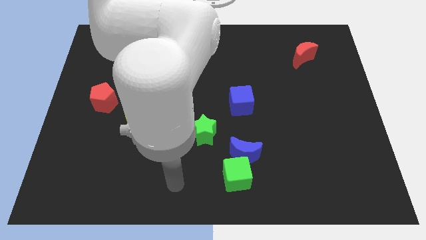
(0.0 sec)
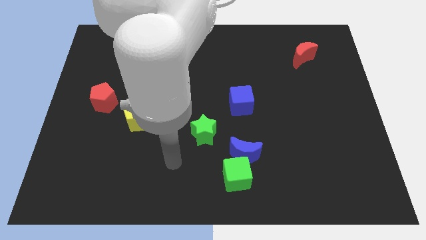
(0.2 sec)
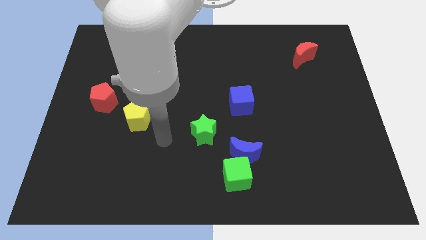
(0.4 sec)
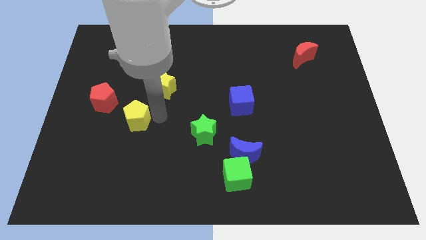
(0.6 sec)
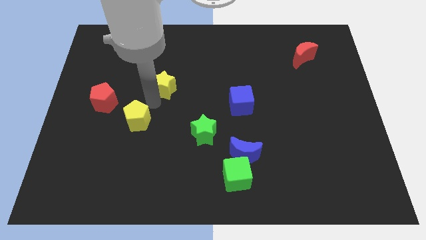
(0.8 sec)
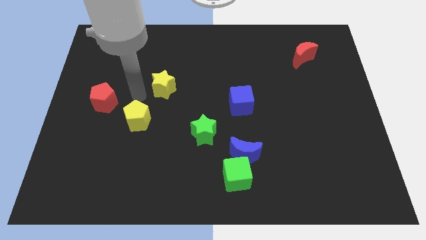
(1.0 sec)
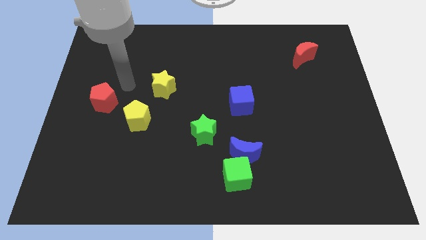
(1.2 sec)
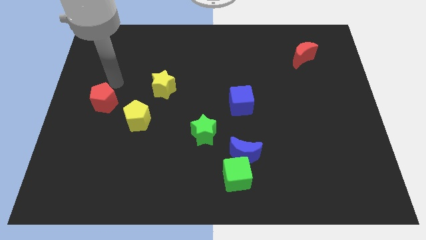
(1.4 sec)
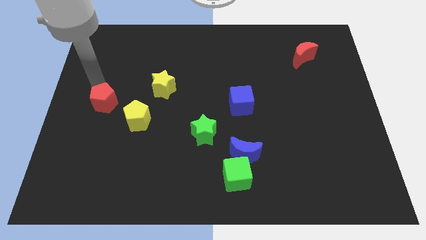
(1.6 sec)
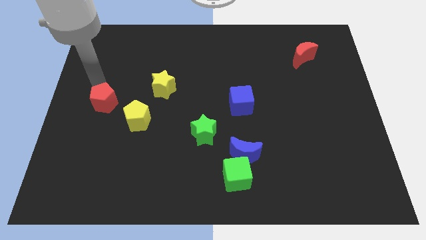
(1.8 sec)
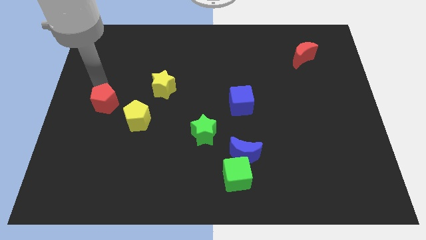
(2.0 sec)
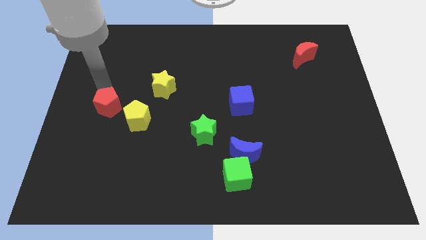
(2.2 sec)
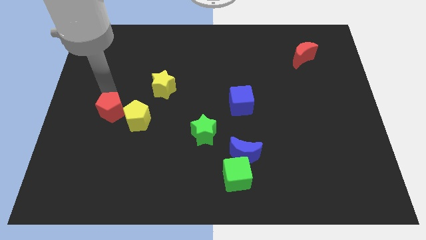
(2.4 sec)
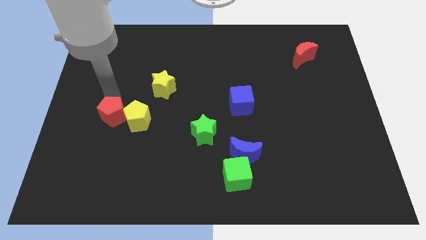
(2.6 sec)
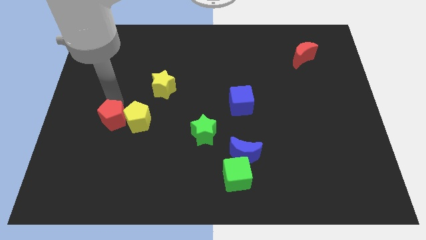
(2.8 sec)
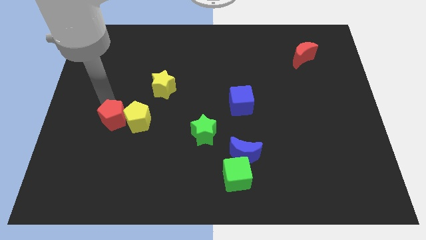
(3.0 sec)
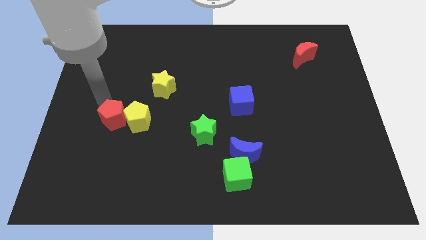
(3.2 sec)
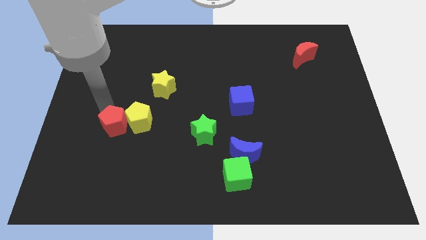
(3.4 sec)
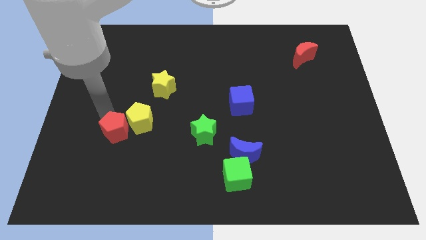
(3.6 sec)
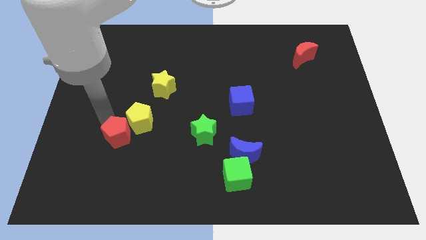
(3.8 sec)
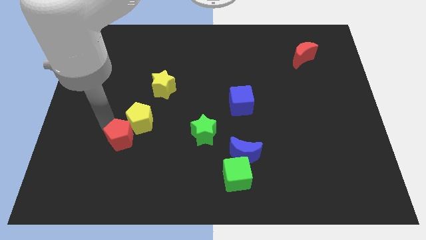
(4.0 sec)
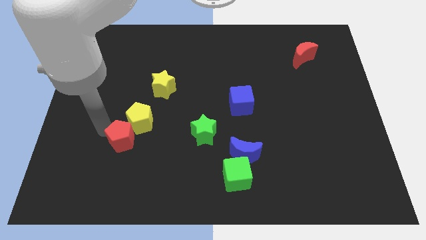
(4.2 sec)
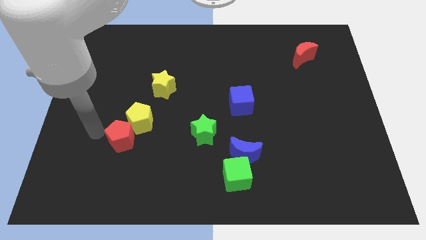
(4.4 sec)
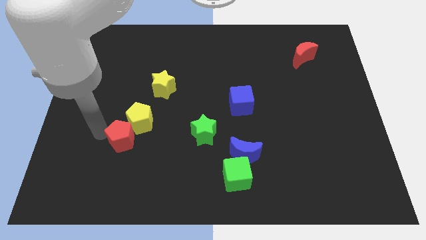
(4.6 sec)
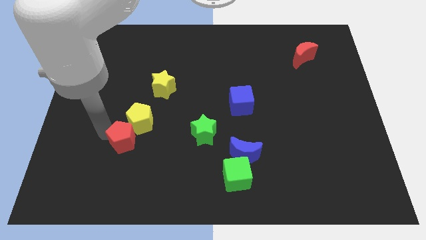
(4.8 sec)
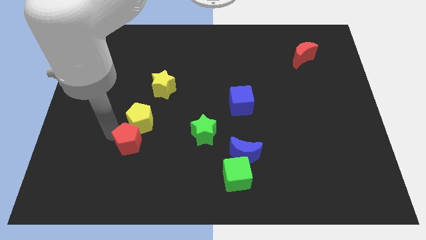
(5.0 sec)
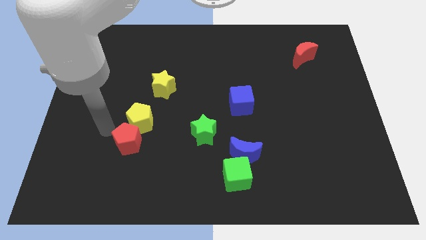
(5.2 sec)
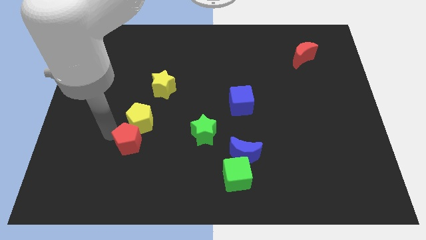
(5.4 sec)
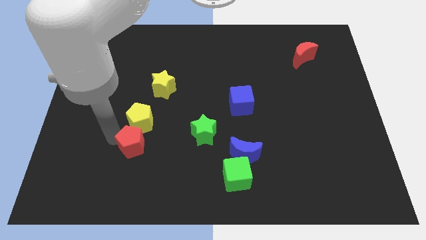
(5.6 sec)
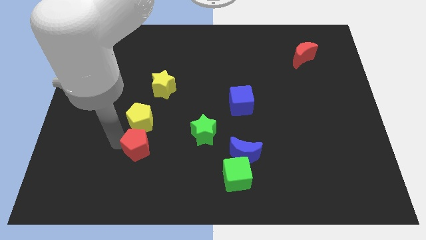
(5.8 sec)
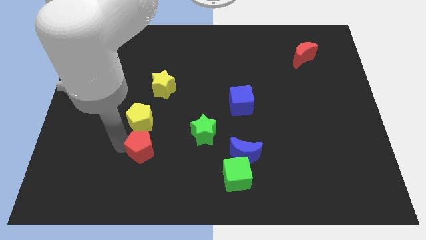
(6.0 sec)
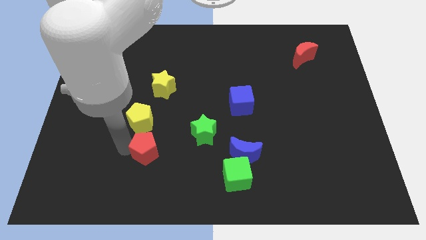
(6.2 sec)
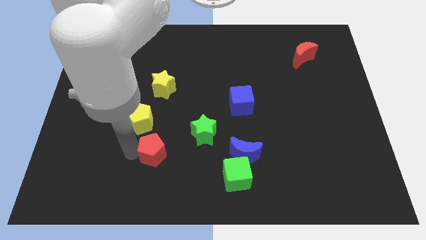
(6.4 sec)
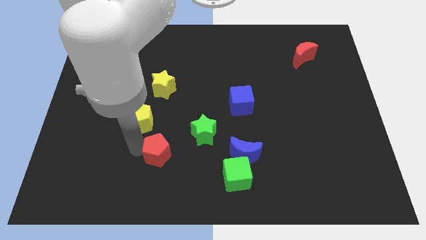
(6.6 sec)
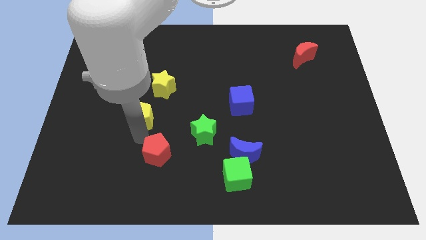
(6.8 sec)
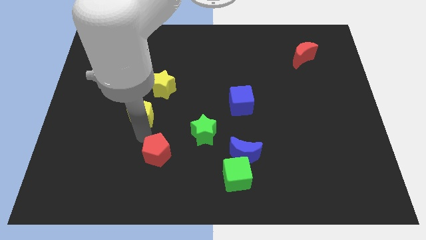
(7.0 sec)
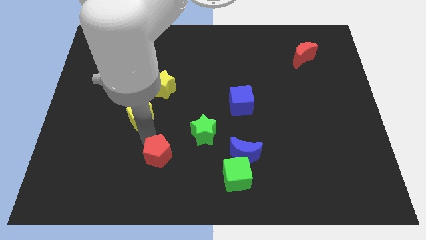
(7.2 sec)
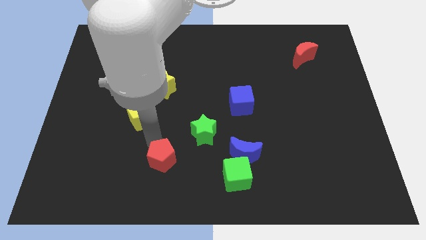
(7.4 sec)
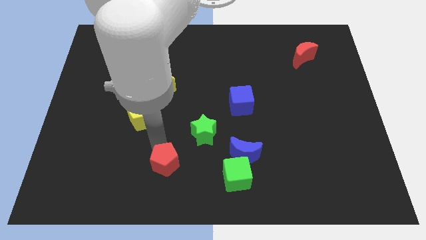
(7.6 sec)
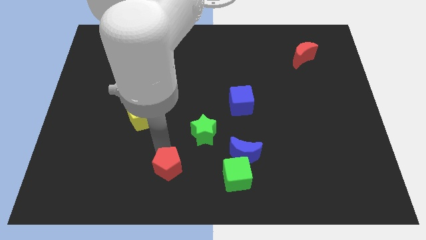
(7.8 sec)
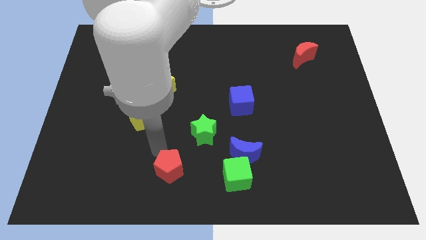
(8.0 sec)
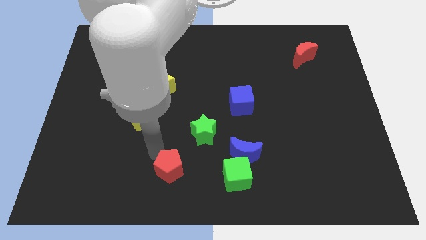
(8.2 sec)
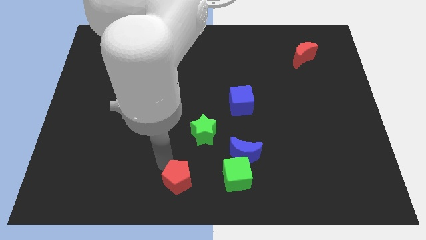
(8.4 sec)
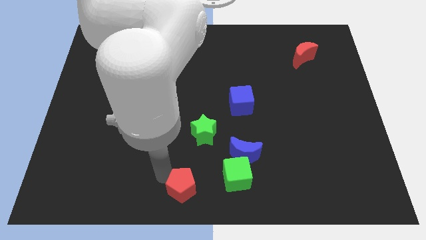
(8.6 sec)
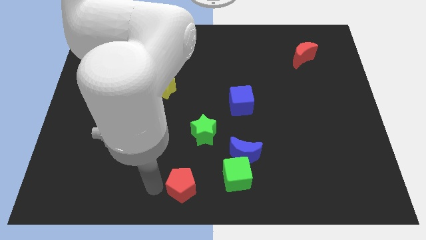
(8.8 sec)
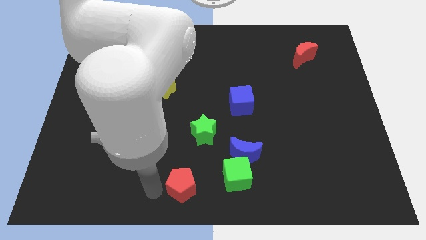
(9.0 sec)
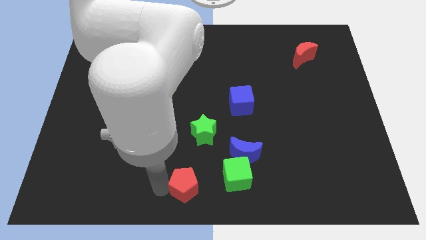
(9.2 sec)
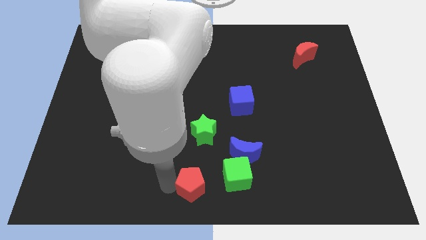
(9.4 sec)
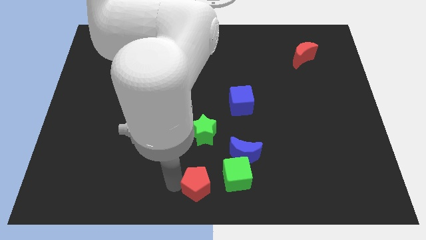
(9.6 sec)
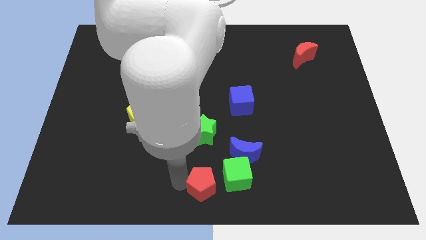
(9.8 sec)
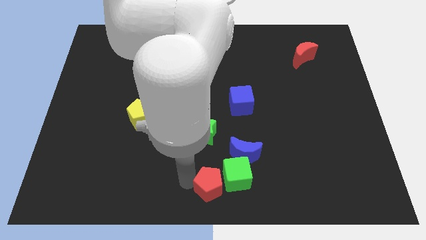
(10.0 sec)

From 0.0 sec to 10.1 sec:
slide the red pentagon towards the green cube

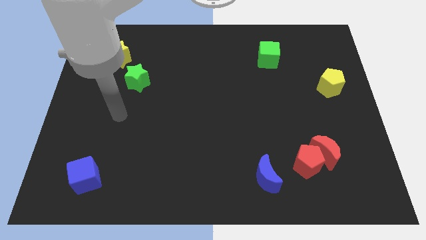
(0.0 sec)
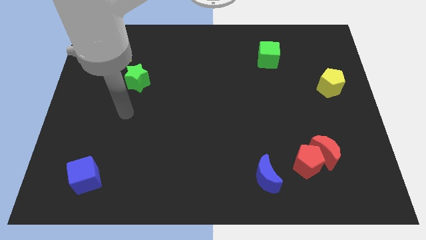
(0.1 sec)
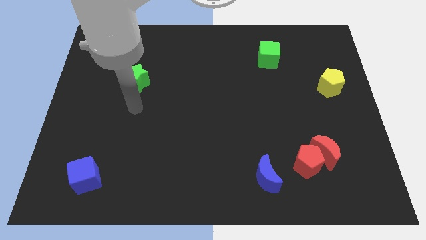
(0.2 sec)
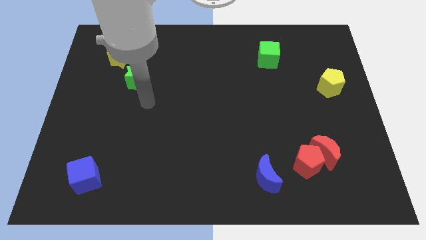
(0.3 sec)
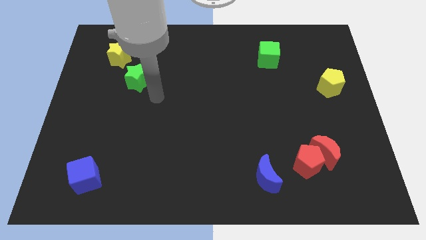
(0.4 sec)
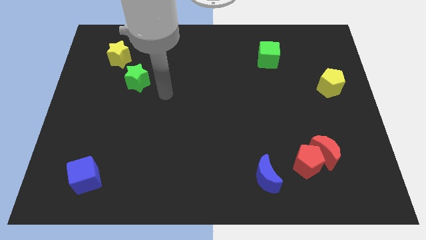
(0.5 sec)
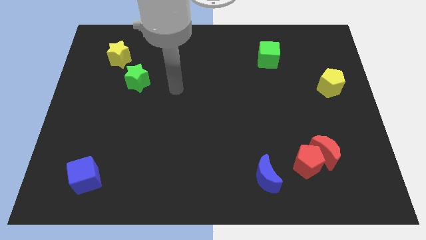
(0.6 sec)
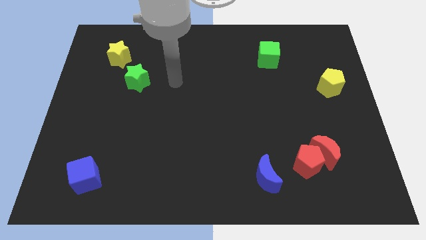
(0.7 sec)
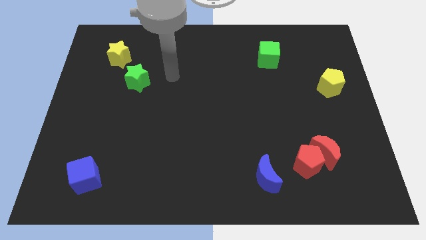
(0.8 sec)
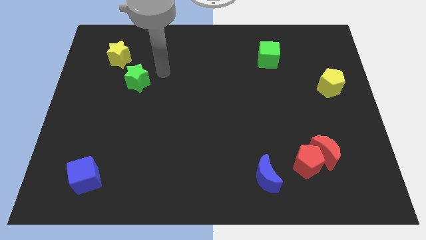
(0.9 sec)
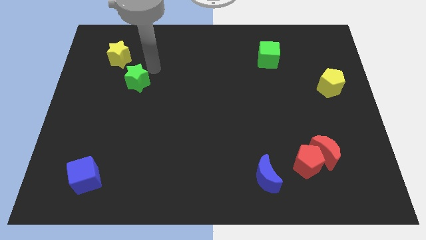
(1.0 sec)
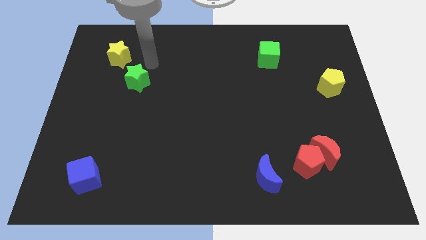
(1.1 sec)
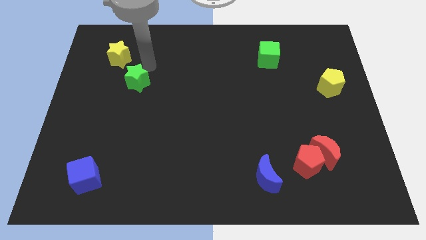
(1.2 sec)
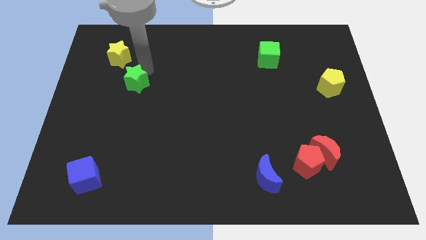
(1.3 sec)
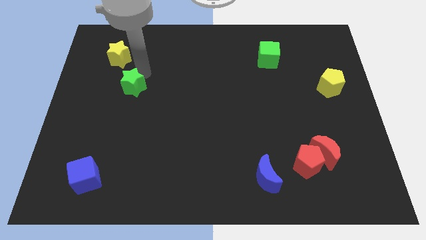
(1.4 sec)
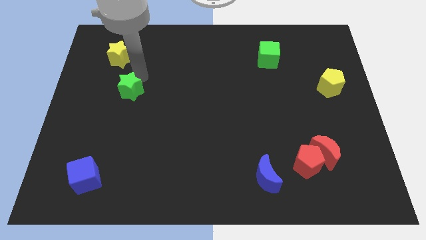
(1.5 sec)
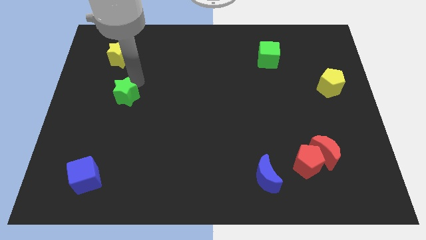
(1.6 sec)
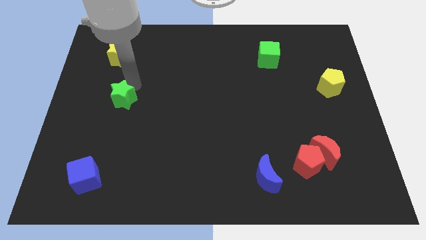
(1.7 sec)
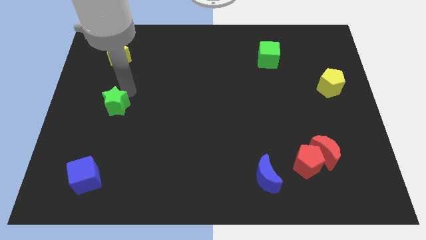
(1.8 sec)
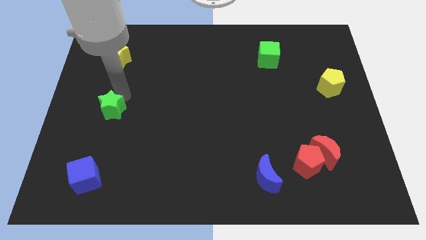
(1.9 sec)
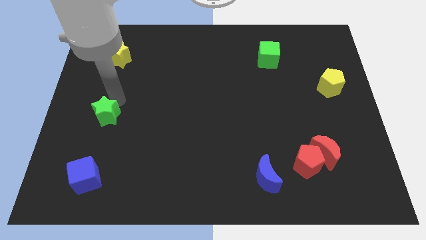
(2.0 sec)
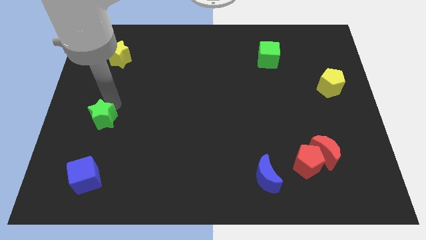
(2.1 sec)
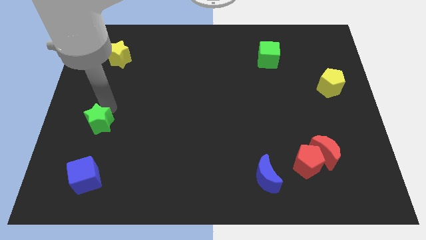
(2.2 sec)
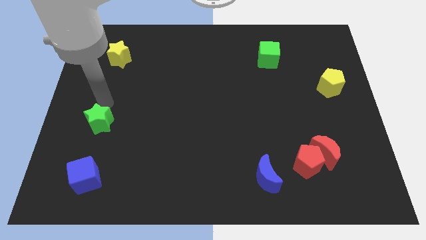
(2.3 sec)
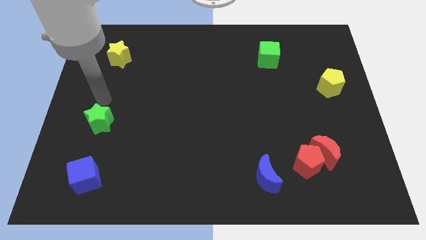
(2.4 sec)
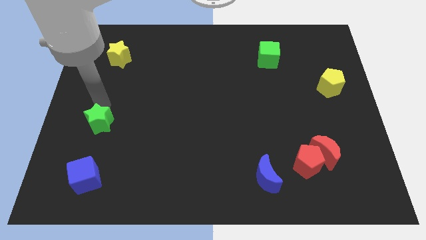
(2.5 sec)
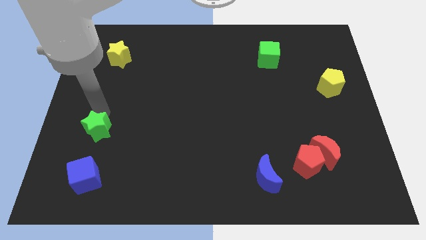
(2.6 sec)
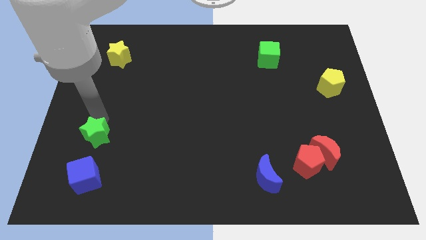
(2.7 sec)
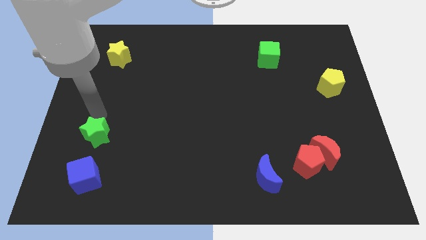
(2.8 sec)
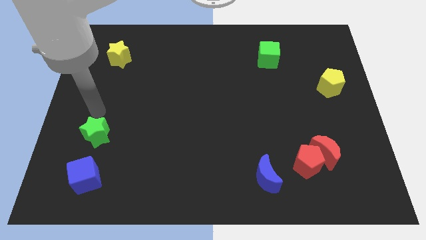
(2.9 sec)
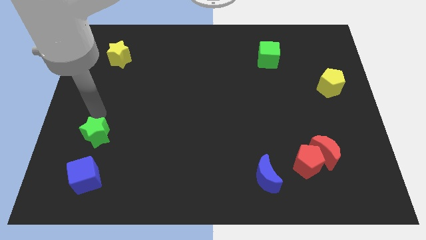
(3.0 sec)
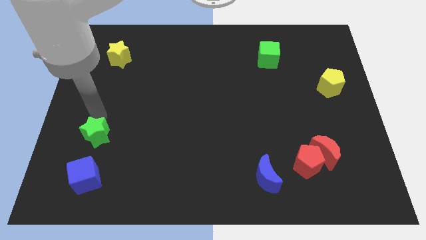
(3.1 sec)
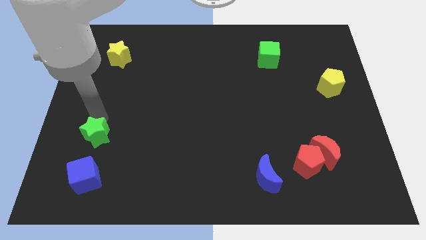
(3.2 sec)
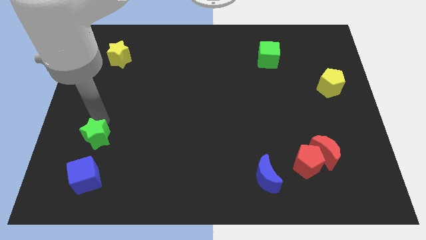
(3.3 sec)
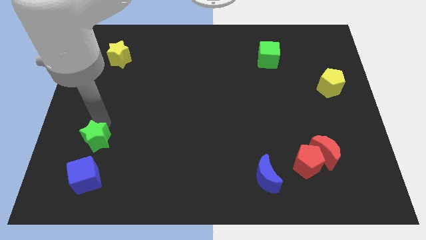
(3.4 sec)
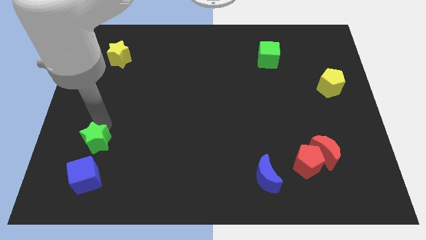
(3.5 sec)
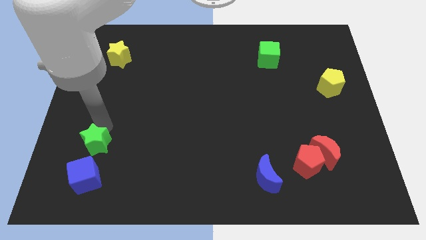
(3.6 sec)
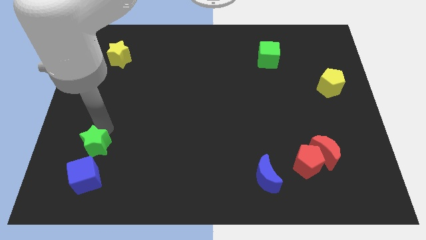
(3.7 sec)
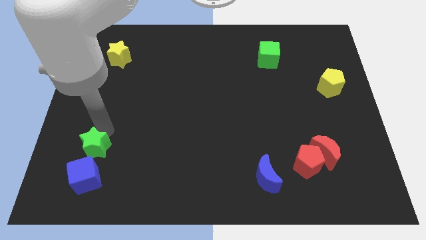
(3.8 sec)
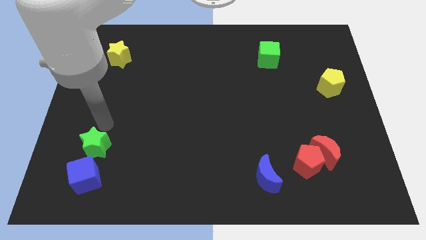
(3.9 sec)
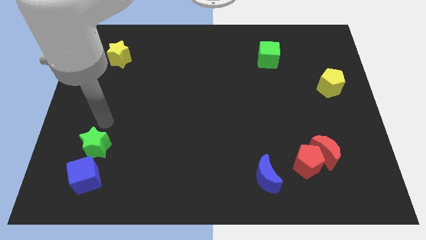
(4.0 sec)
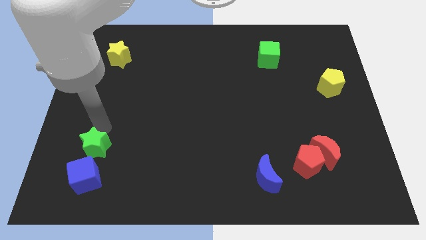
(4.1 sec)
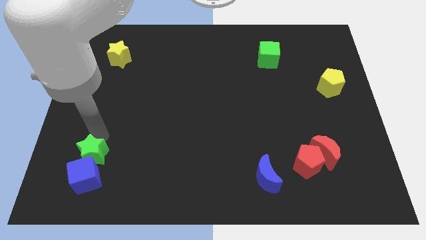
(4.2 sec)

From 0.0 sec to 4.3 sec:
put the green star towards the blue cube
